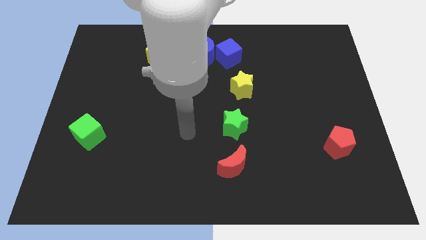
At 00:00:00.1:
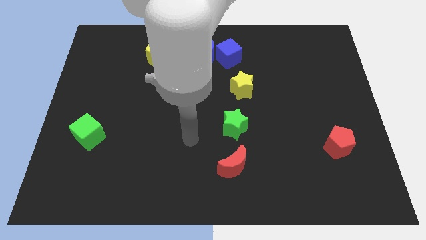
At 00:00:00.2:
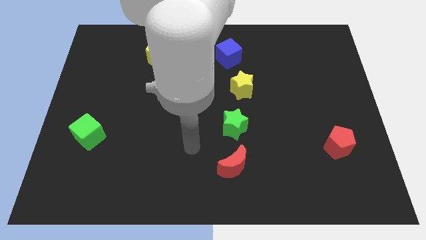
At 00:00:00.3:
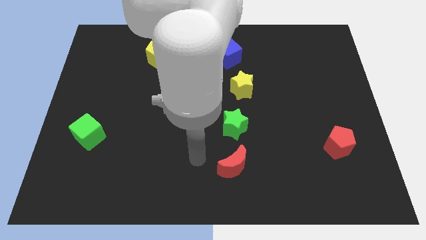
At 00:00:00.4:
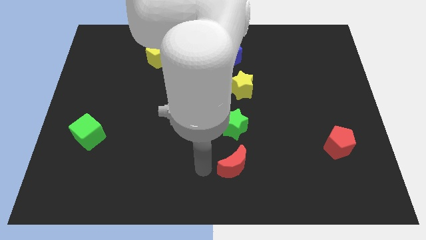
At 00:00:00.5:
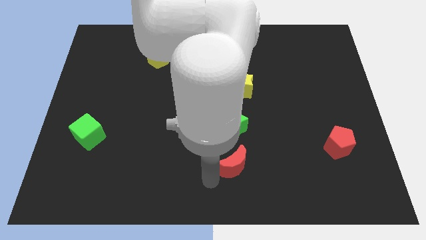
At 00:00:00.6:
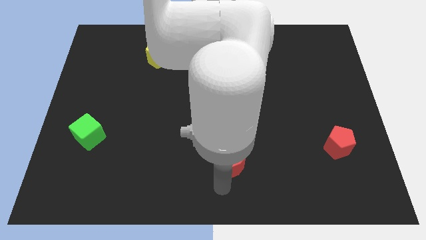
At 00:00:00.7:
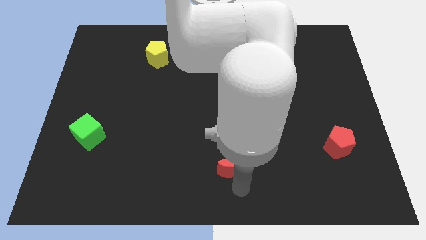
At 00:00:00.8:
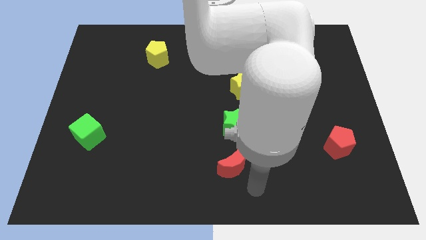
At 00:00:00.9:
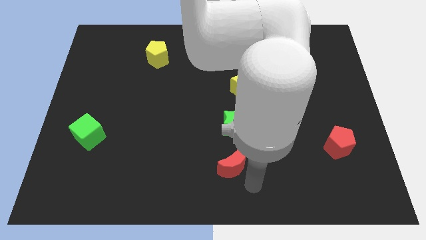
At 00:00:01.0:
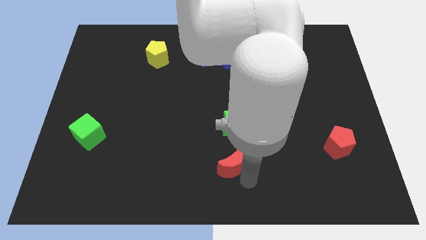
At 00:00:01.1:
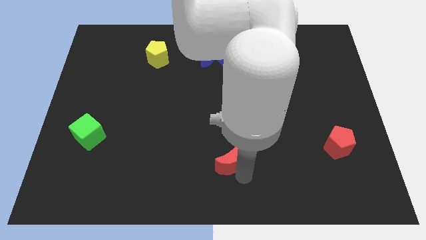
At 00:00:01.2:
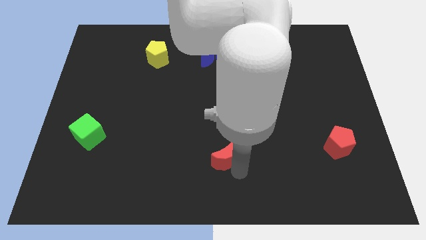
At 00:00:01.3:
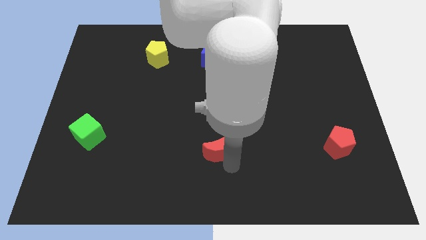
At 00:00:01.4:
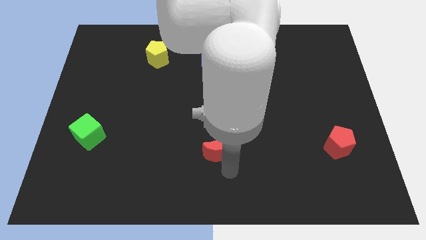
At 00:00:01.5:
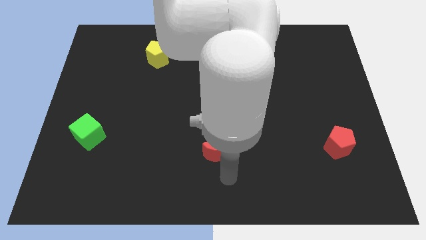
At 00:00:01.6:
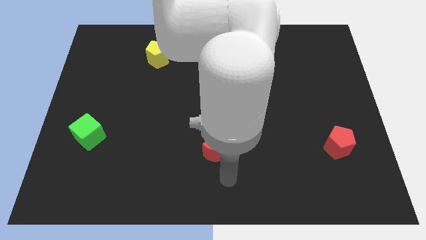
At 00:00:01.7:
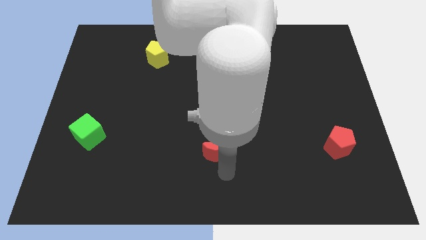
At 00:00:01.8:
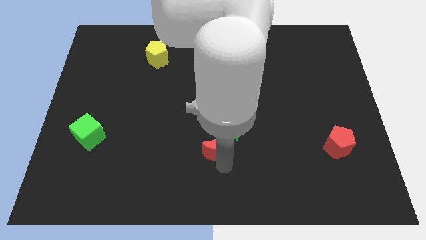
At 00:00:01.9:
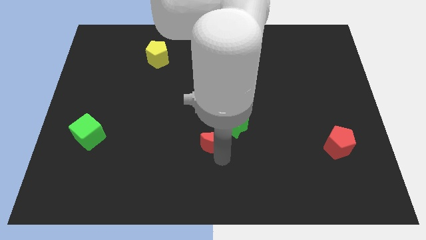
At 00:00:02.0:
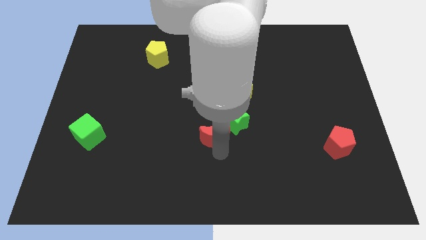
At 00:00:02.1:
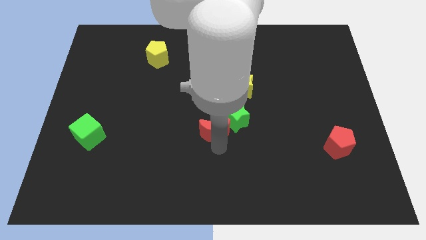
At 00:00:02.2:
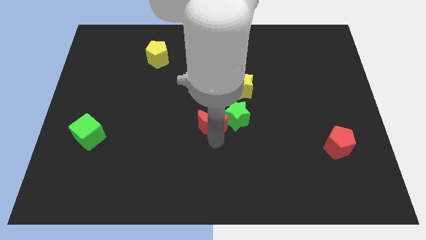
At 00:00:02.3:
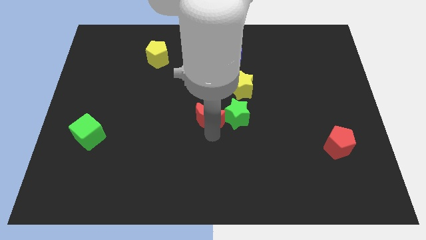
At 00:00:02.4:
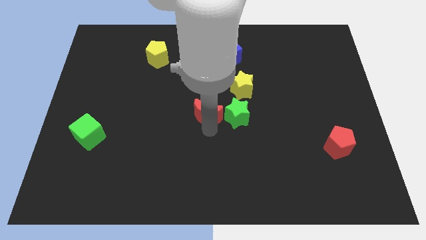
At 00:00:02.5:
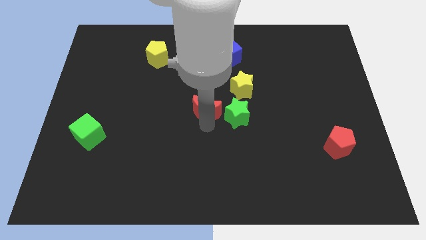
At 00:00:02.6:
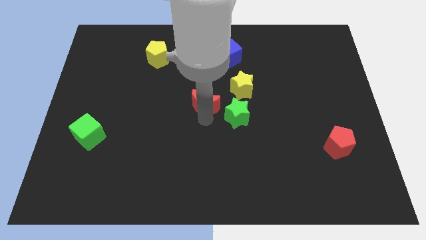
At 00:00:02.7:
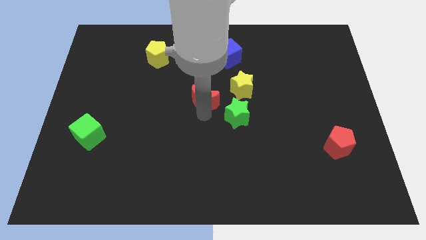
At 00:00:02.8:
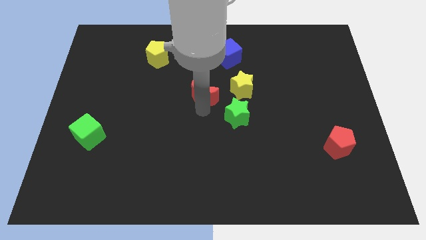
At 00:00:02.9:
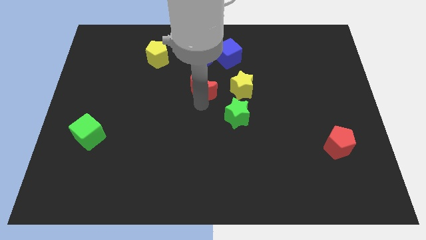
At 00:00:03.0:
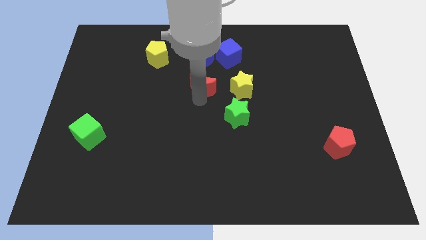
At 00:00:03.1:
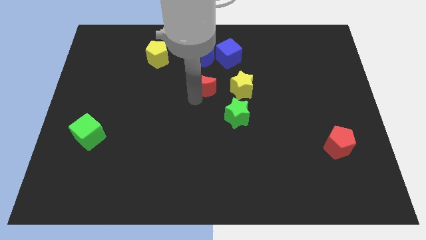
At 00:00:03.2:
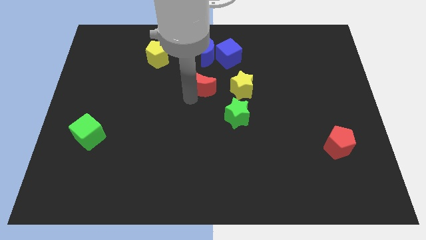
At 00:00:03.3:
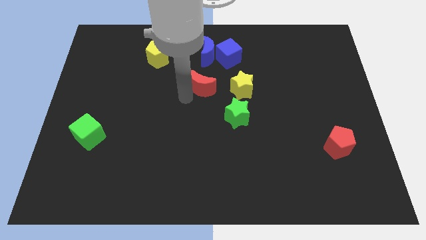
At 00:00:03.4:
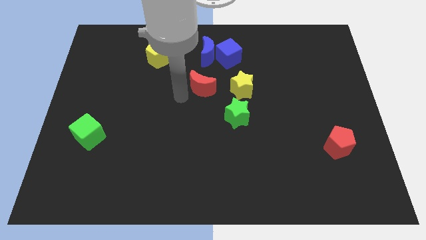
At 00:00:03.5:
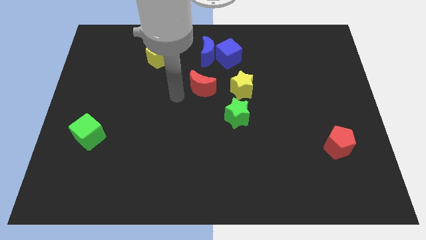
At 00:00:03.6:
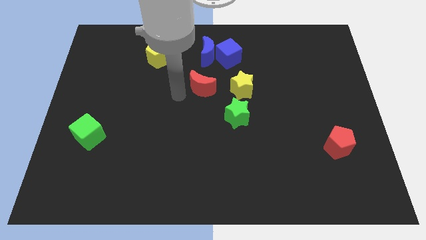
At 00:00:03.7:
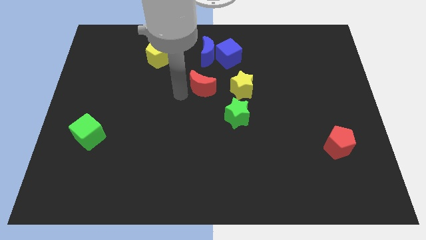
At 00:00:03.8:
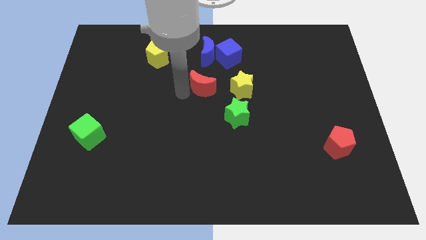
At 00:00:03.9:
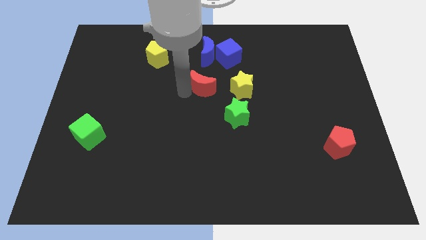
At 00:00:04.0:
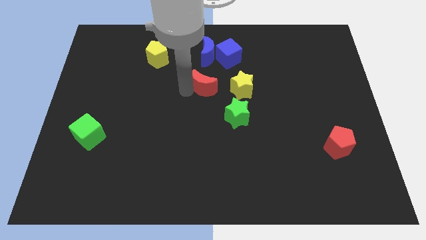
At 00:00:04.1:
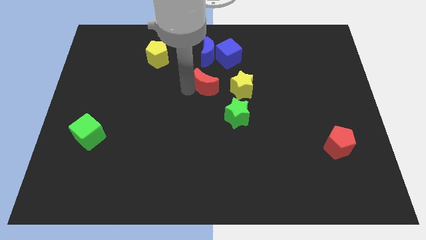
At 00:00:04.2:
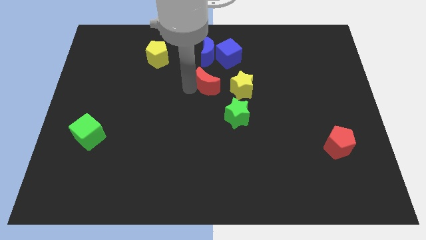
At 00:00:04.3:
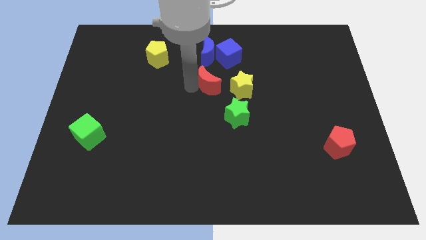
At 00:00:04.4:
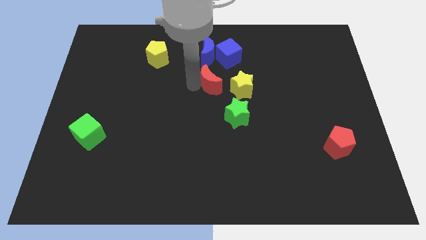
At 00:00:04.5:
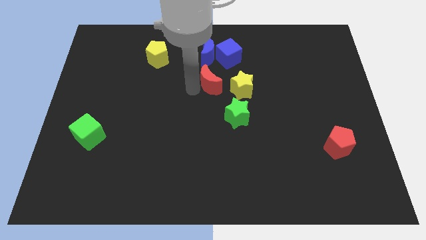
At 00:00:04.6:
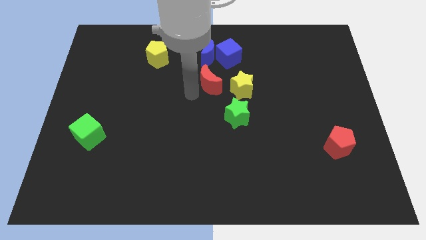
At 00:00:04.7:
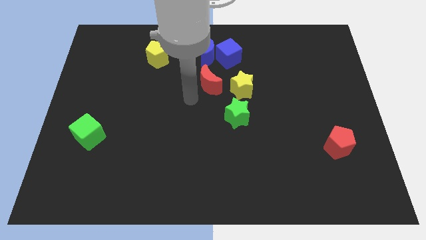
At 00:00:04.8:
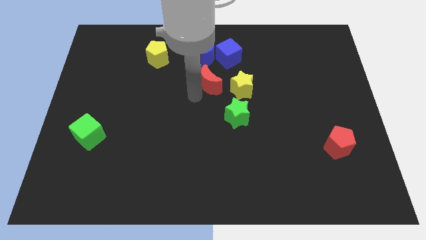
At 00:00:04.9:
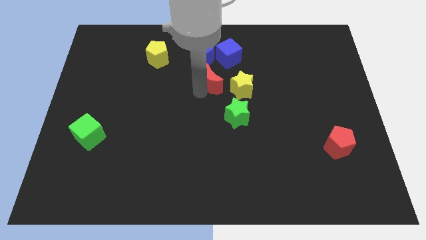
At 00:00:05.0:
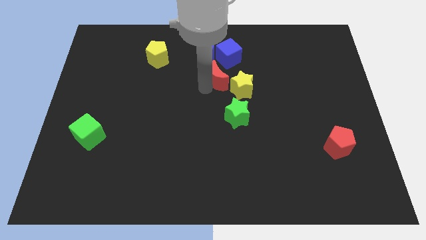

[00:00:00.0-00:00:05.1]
put the red moon diagonally down and to the right of the blue moon

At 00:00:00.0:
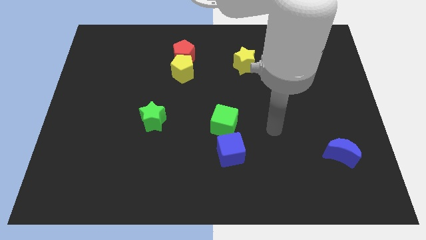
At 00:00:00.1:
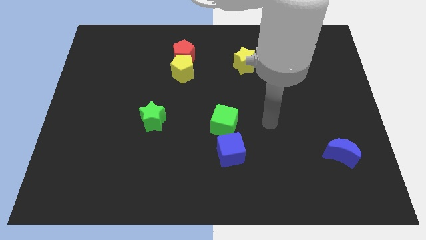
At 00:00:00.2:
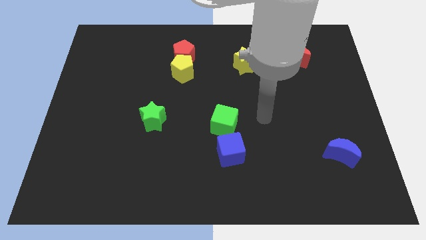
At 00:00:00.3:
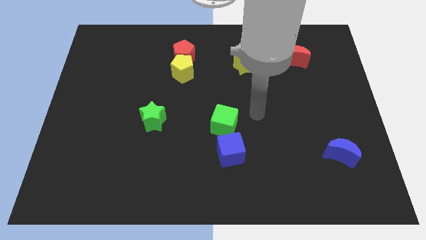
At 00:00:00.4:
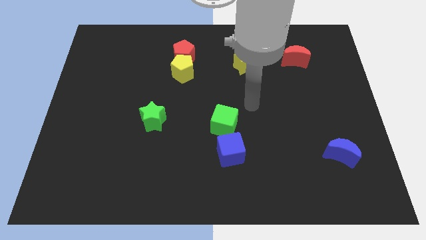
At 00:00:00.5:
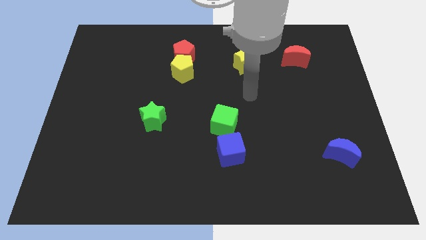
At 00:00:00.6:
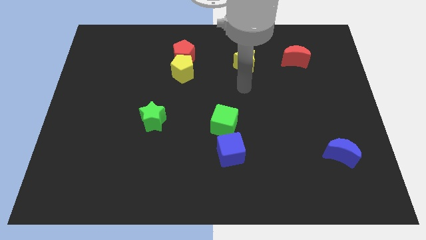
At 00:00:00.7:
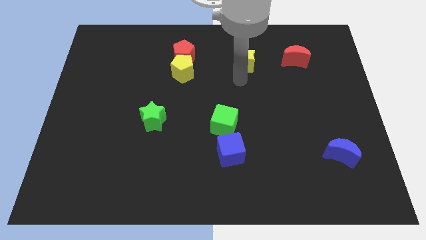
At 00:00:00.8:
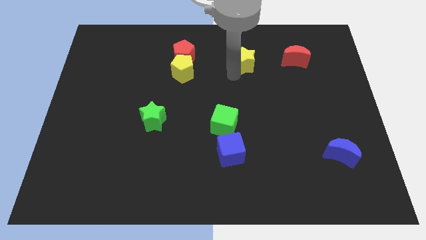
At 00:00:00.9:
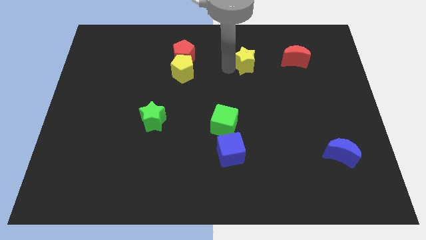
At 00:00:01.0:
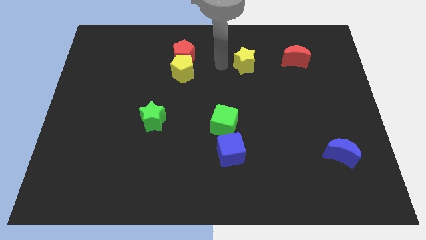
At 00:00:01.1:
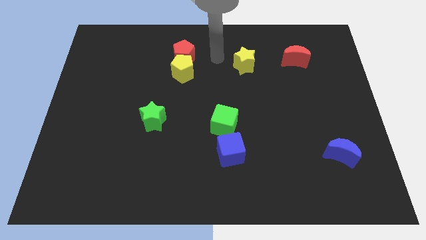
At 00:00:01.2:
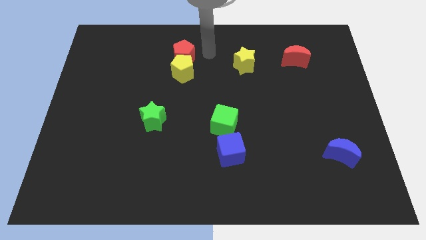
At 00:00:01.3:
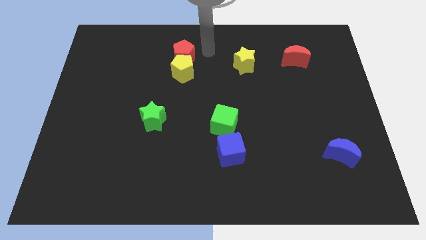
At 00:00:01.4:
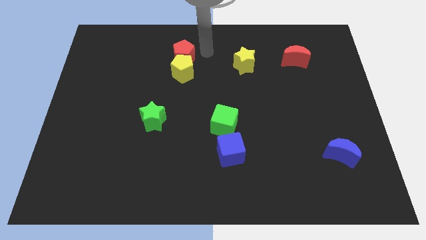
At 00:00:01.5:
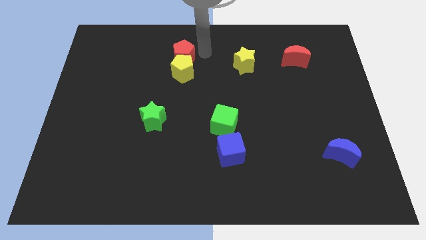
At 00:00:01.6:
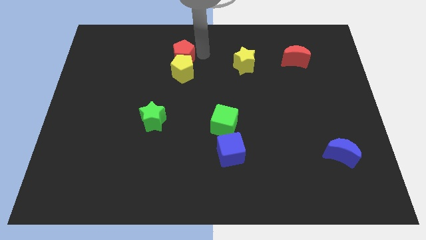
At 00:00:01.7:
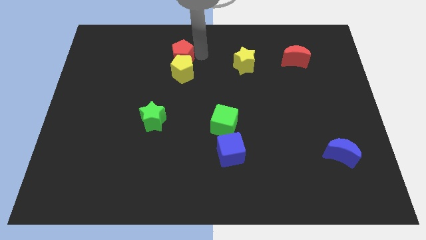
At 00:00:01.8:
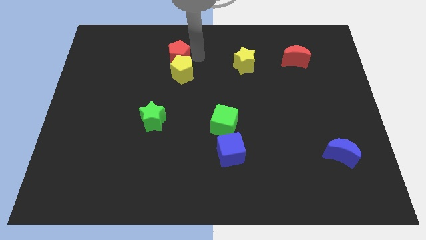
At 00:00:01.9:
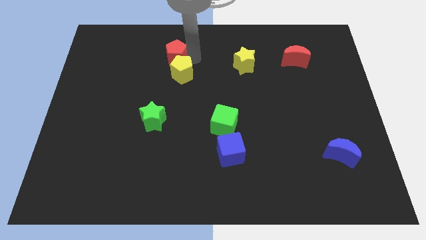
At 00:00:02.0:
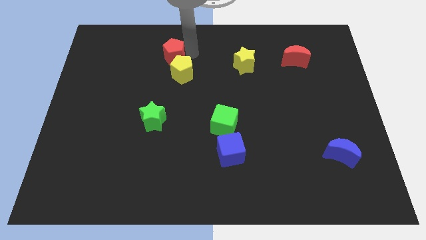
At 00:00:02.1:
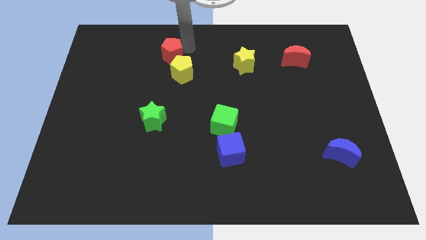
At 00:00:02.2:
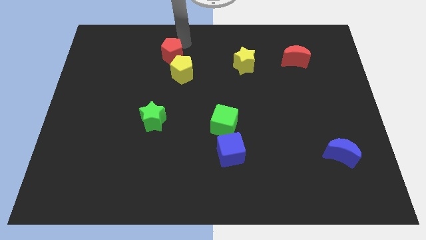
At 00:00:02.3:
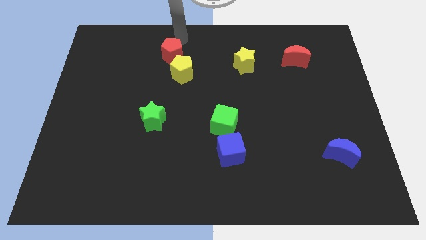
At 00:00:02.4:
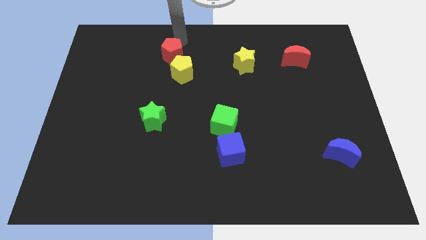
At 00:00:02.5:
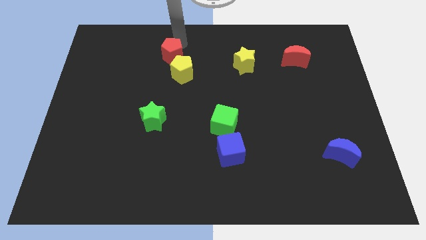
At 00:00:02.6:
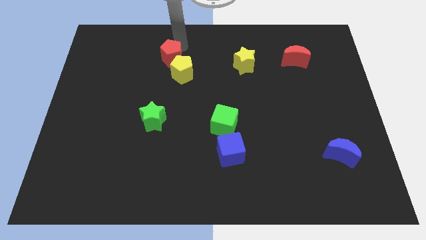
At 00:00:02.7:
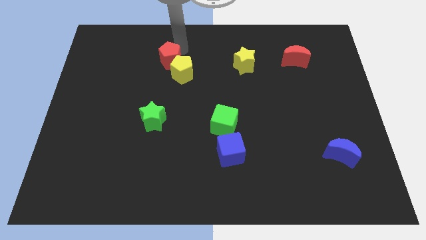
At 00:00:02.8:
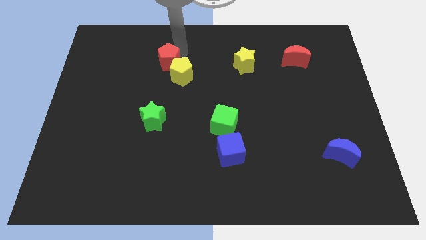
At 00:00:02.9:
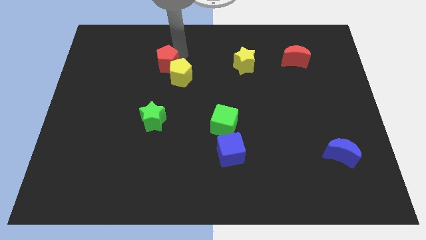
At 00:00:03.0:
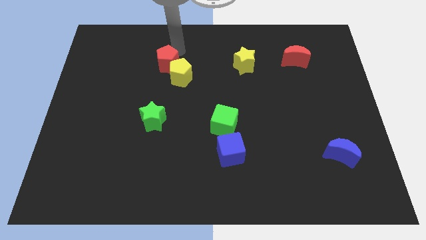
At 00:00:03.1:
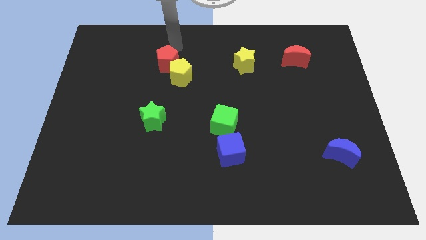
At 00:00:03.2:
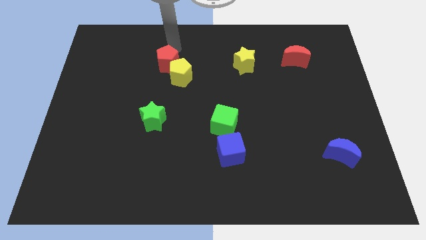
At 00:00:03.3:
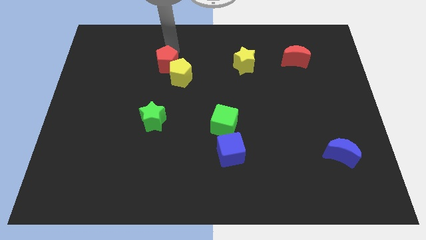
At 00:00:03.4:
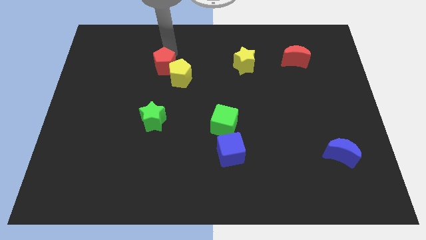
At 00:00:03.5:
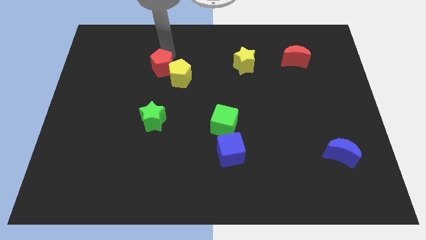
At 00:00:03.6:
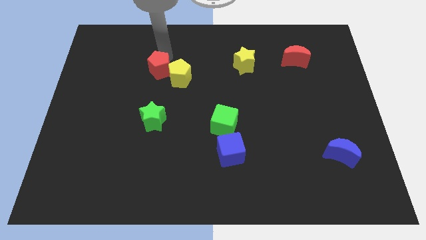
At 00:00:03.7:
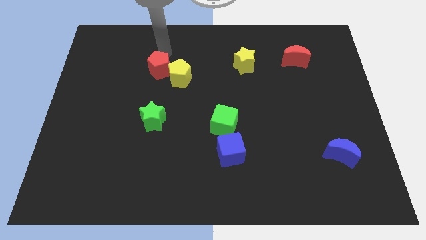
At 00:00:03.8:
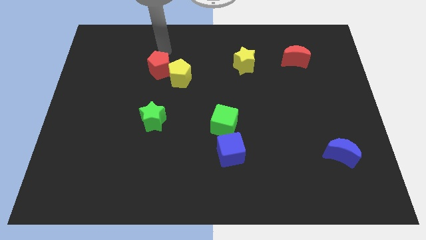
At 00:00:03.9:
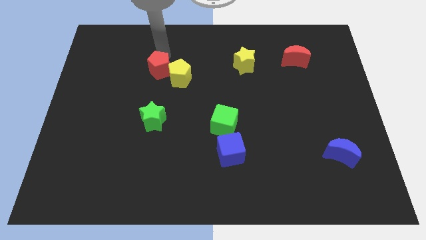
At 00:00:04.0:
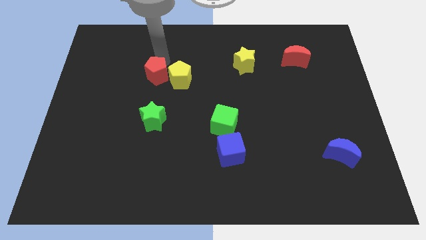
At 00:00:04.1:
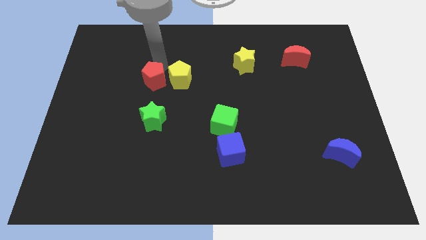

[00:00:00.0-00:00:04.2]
put the red pentagon to the bottom left side of the yellow pentagon
